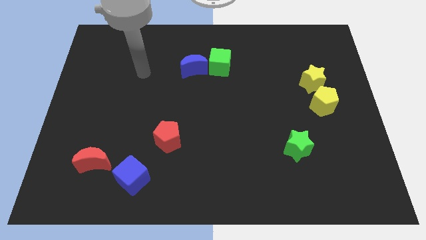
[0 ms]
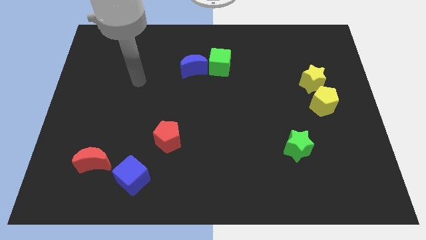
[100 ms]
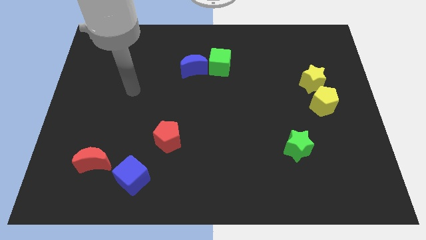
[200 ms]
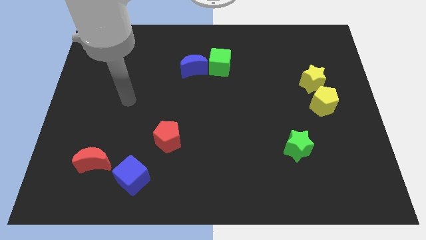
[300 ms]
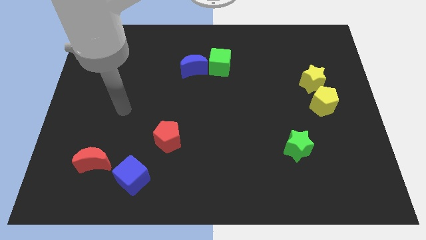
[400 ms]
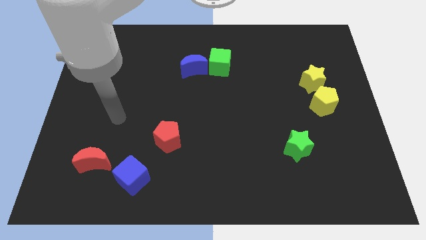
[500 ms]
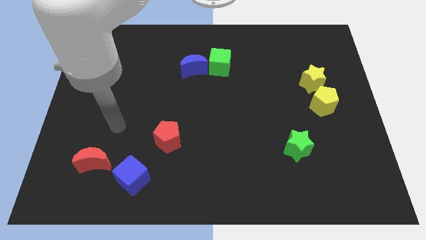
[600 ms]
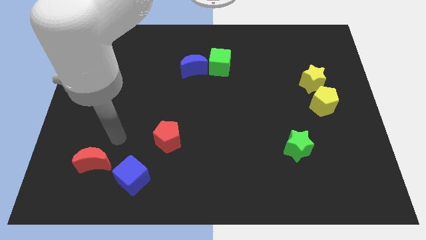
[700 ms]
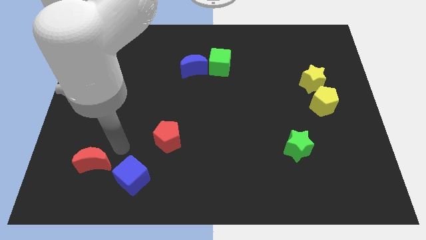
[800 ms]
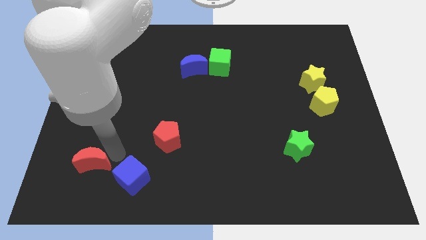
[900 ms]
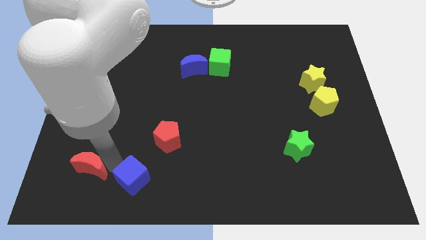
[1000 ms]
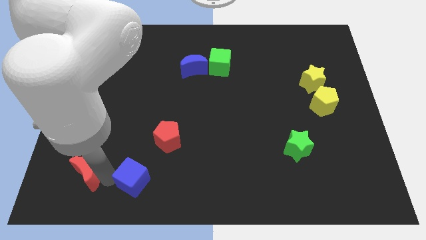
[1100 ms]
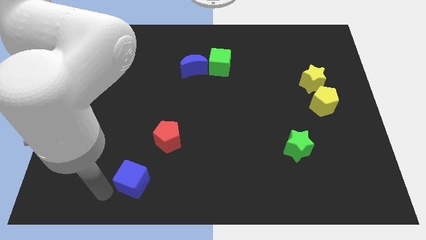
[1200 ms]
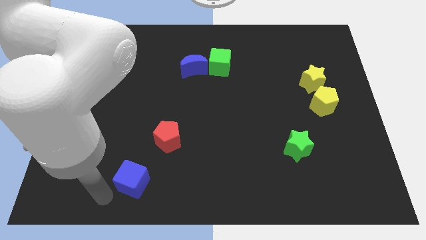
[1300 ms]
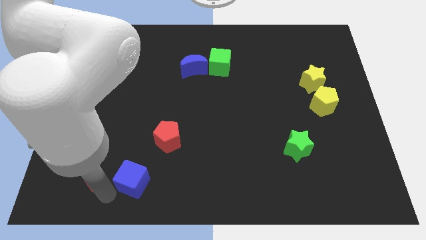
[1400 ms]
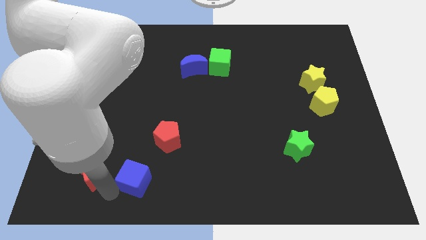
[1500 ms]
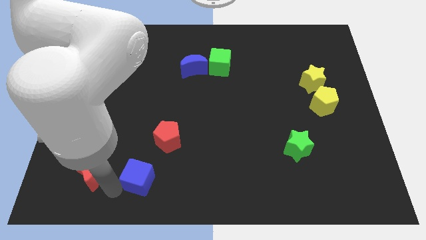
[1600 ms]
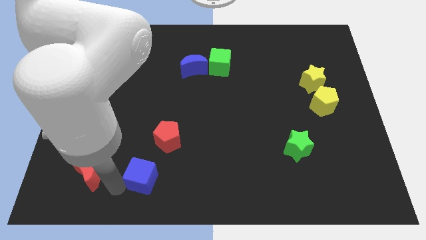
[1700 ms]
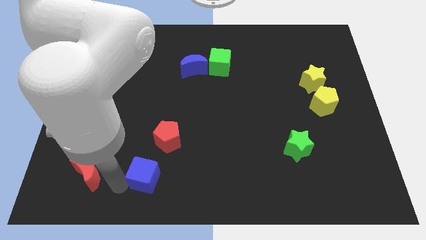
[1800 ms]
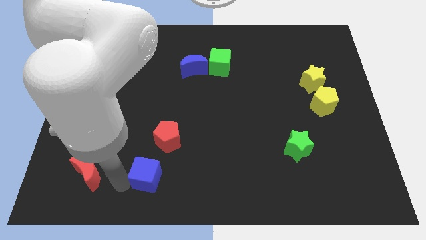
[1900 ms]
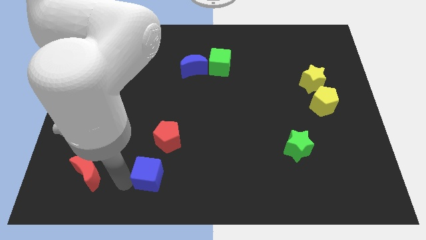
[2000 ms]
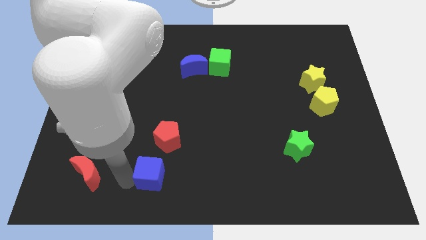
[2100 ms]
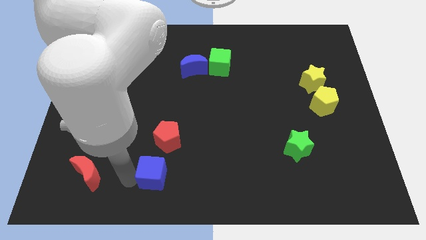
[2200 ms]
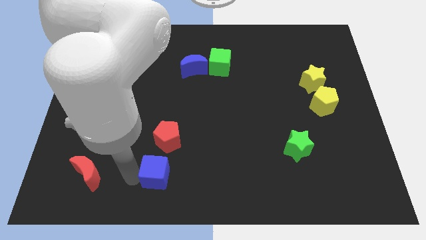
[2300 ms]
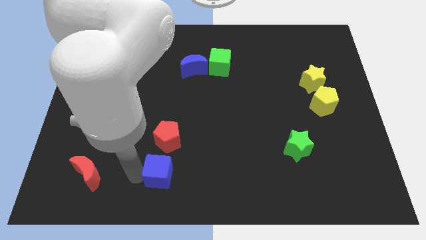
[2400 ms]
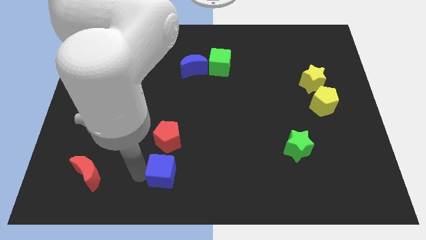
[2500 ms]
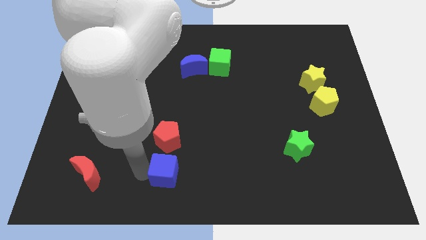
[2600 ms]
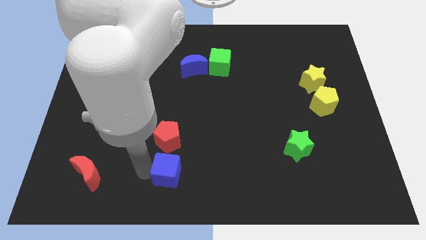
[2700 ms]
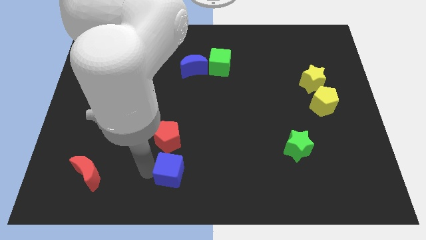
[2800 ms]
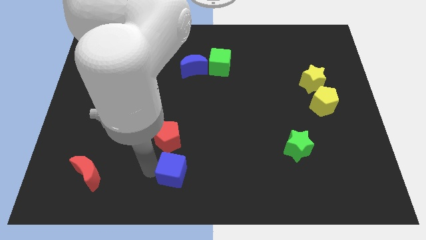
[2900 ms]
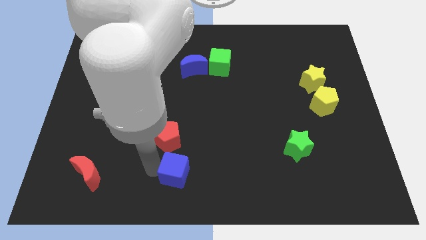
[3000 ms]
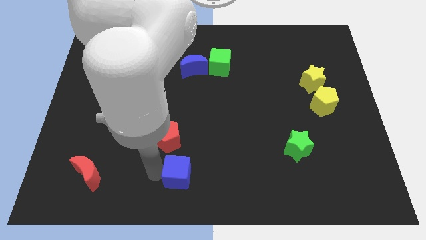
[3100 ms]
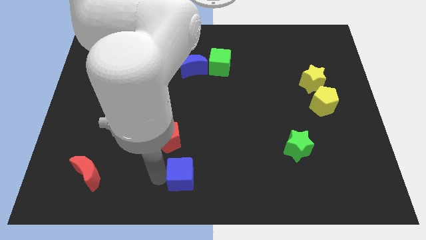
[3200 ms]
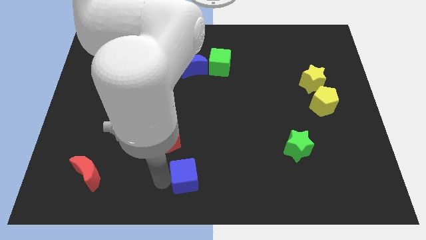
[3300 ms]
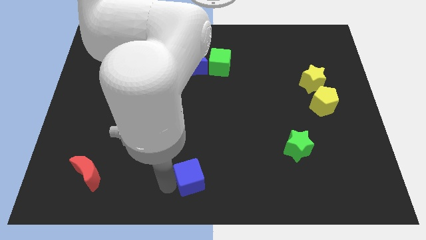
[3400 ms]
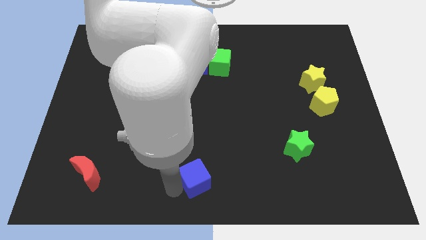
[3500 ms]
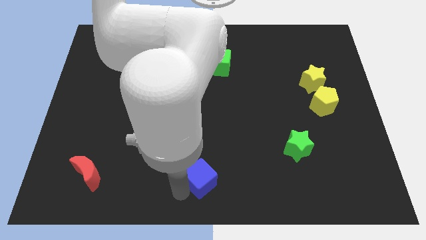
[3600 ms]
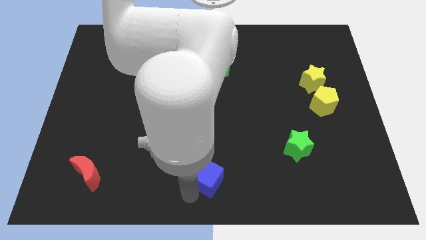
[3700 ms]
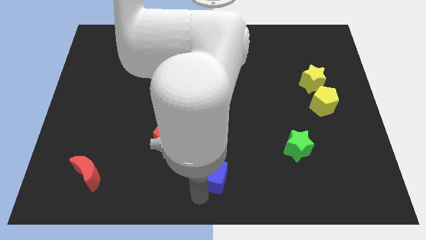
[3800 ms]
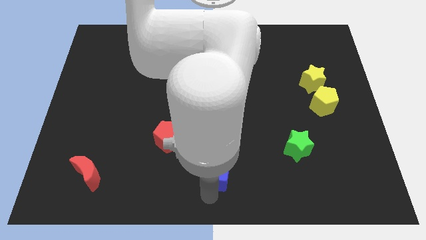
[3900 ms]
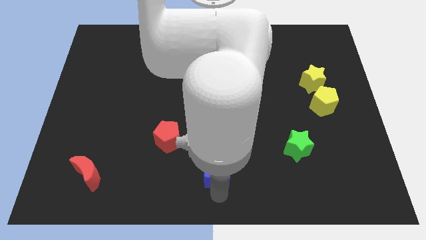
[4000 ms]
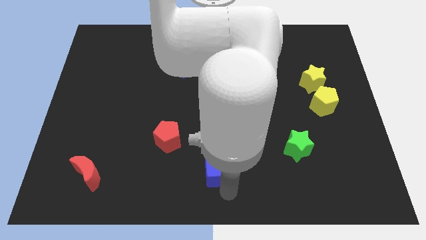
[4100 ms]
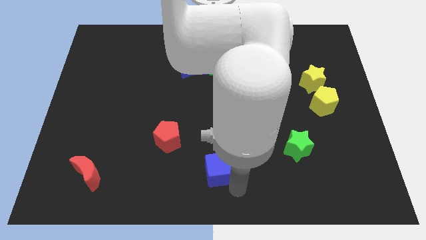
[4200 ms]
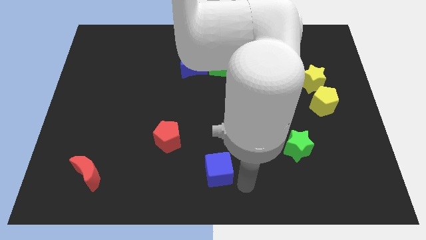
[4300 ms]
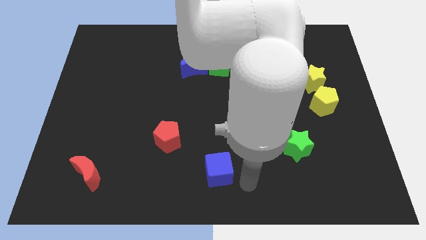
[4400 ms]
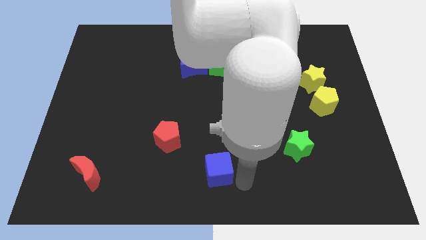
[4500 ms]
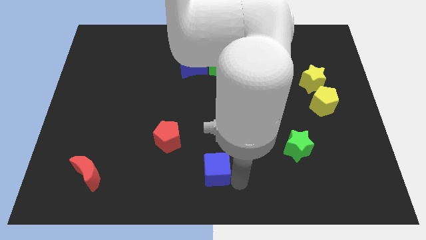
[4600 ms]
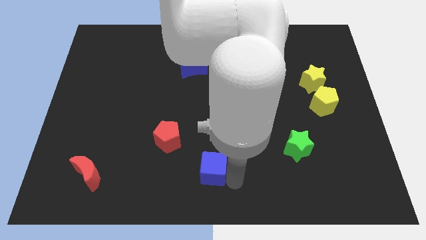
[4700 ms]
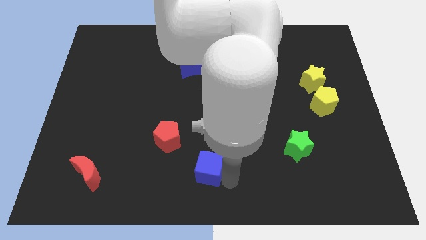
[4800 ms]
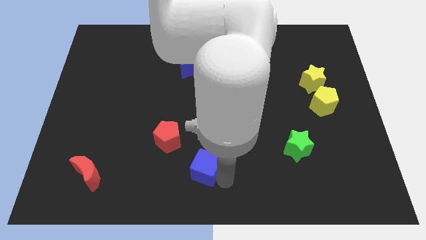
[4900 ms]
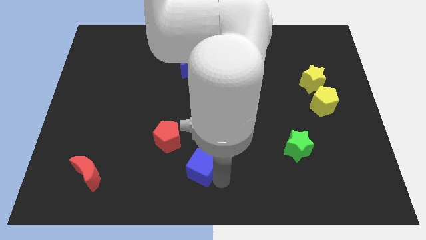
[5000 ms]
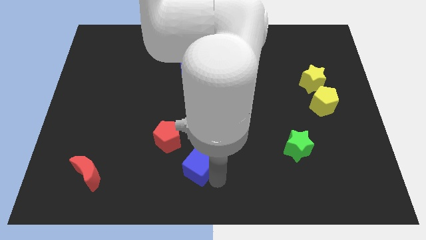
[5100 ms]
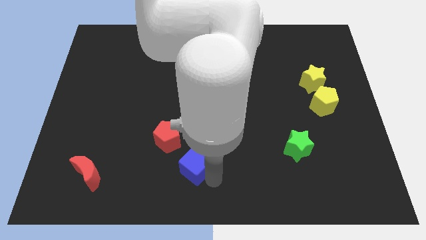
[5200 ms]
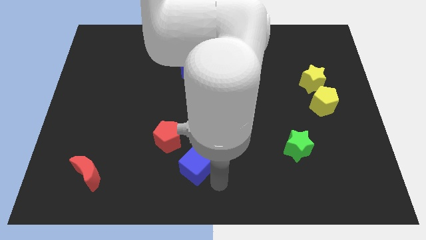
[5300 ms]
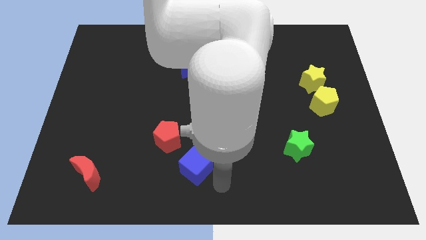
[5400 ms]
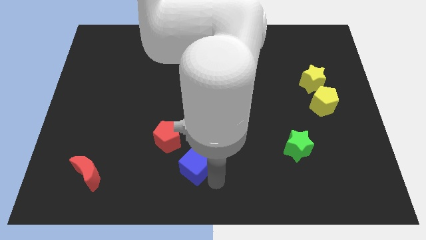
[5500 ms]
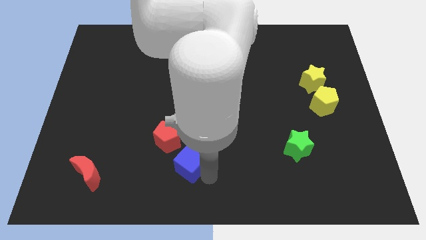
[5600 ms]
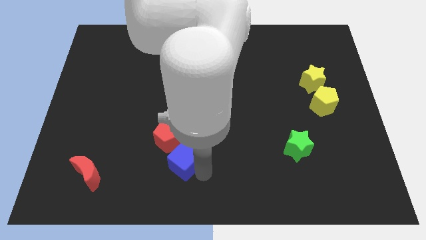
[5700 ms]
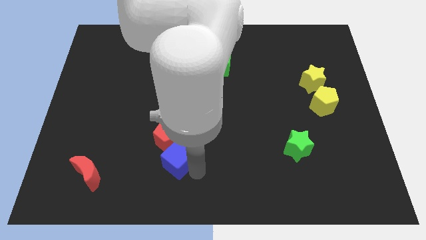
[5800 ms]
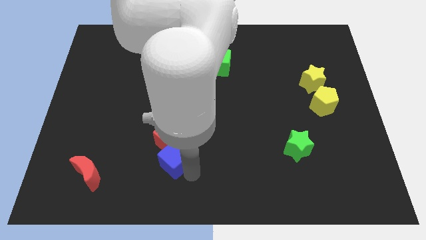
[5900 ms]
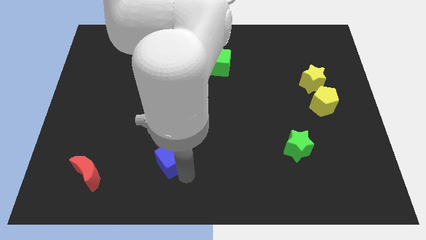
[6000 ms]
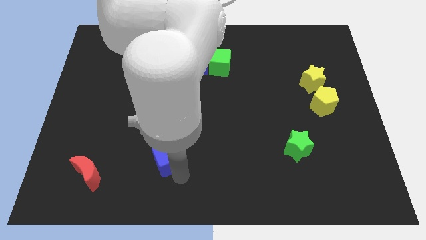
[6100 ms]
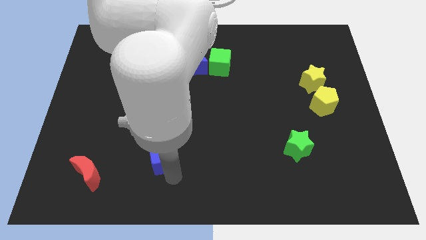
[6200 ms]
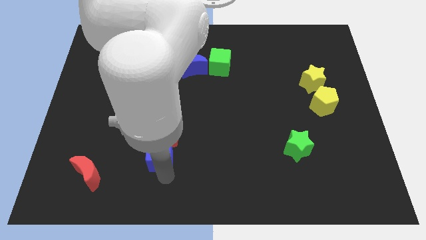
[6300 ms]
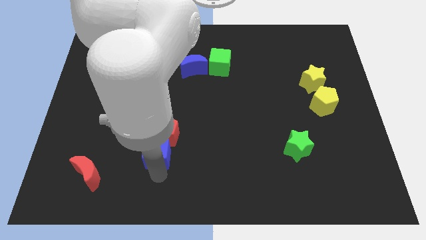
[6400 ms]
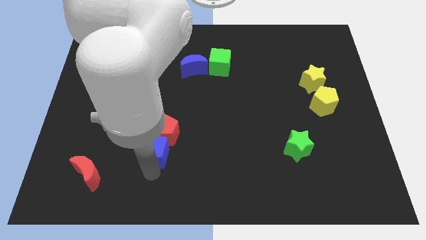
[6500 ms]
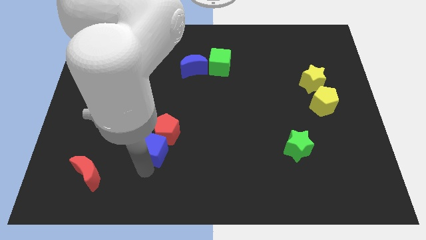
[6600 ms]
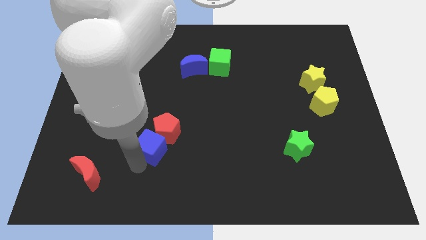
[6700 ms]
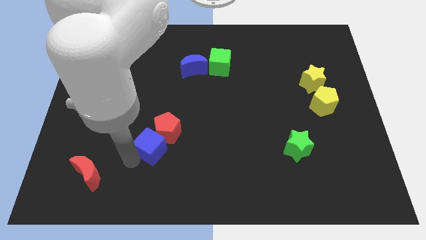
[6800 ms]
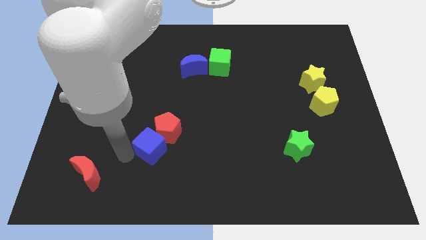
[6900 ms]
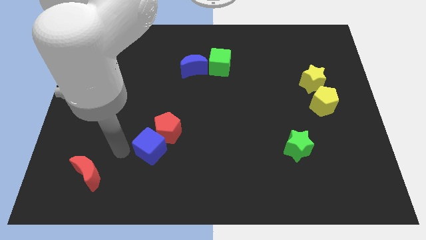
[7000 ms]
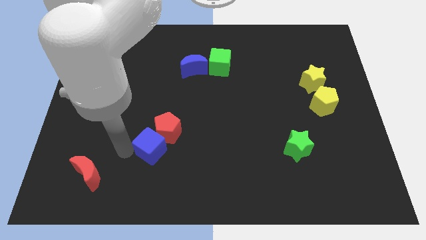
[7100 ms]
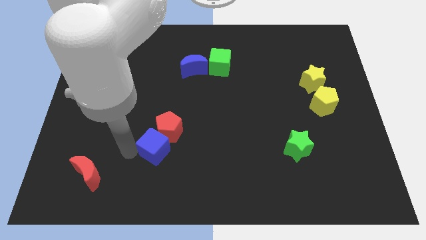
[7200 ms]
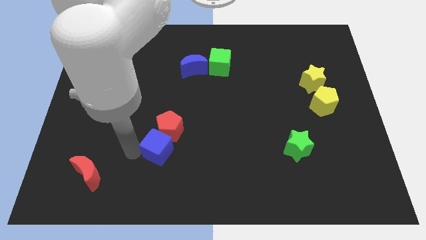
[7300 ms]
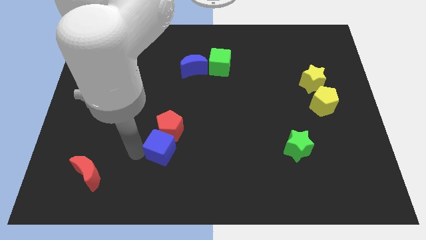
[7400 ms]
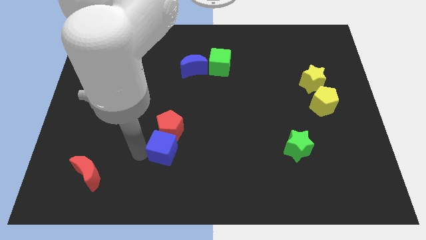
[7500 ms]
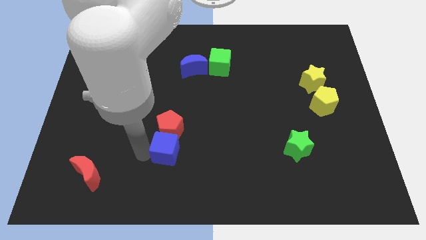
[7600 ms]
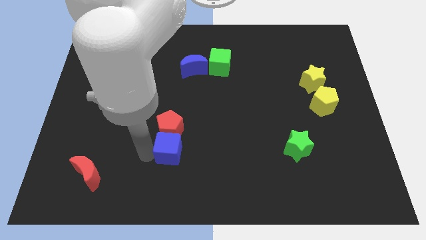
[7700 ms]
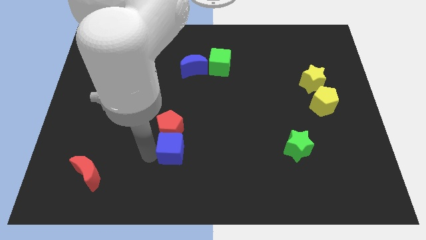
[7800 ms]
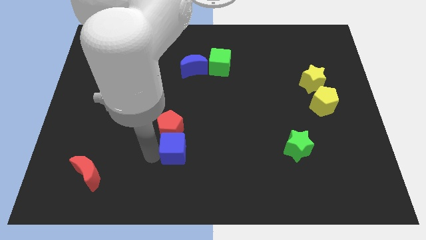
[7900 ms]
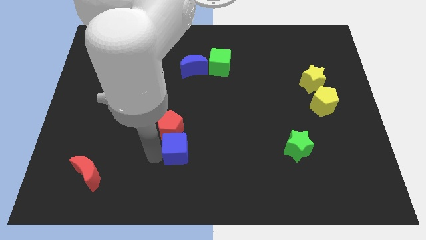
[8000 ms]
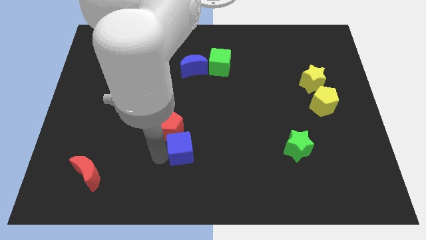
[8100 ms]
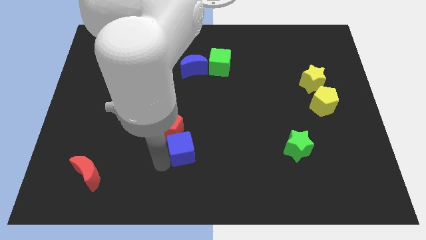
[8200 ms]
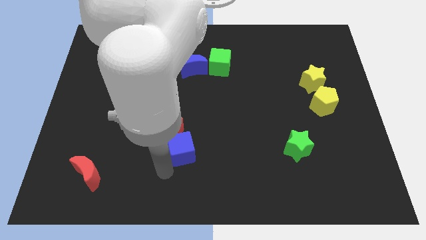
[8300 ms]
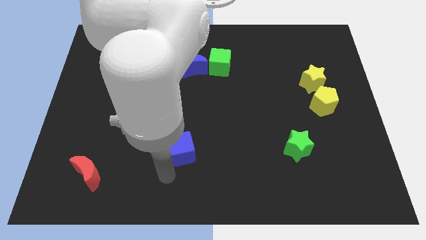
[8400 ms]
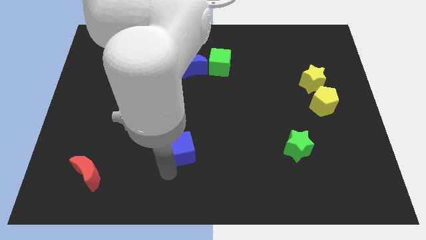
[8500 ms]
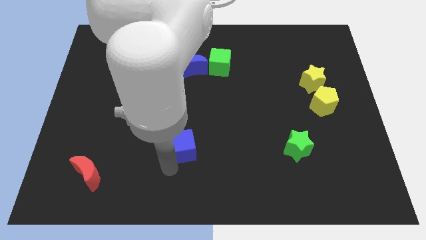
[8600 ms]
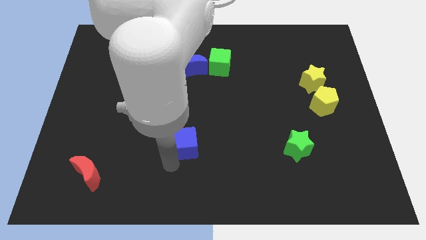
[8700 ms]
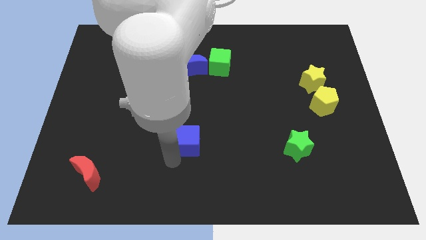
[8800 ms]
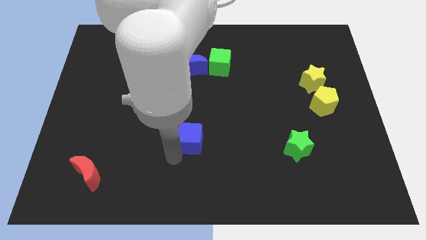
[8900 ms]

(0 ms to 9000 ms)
move the blue cube to the middle
